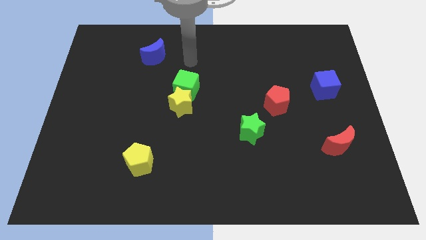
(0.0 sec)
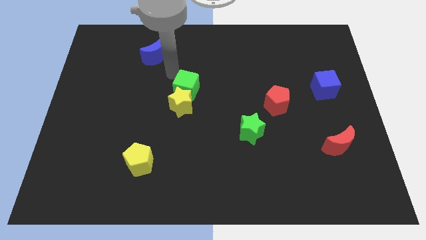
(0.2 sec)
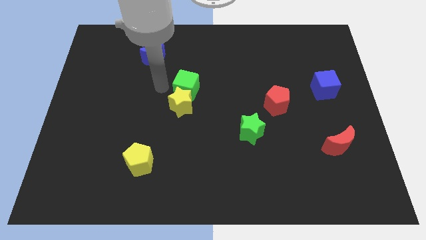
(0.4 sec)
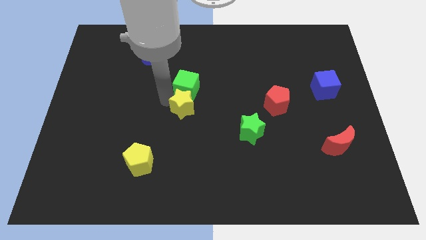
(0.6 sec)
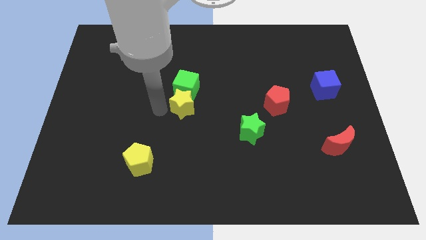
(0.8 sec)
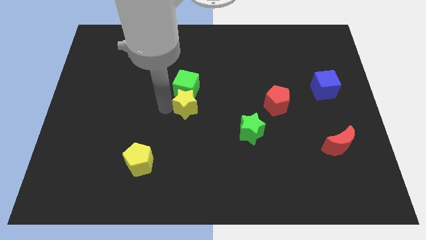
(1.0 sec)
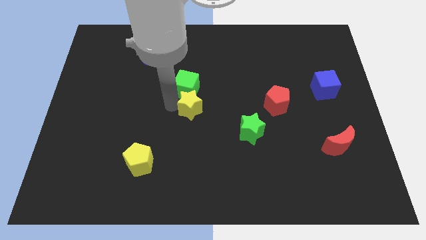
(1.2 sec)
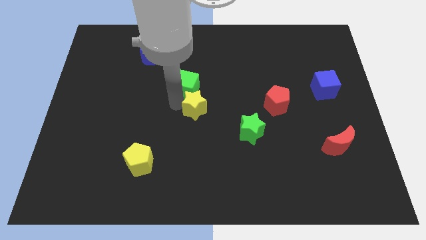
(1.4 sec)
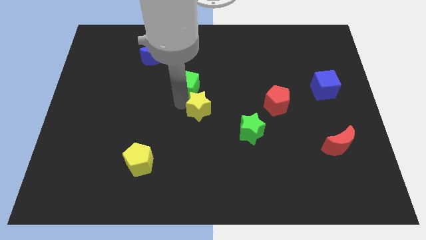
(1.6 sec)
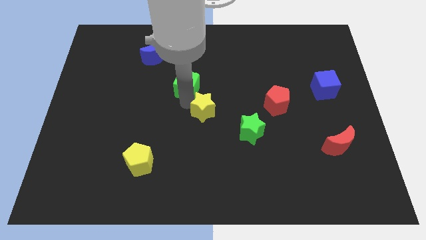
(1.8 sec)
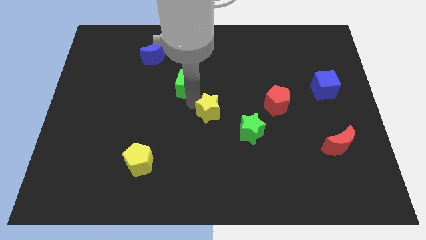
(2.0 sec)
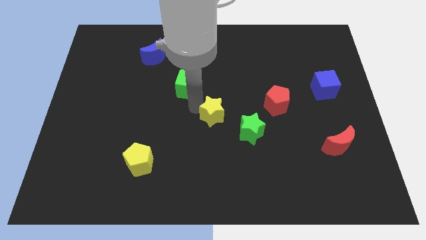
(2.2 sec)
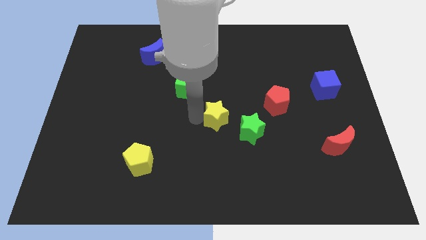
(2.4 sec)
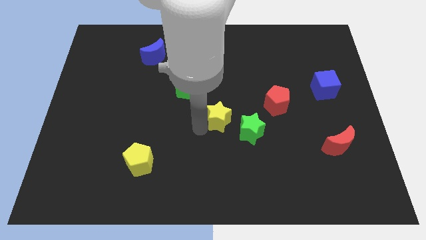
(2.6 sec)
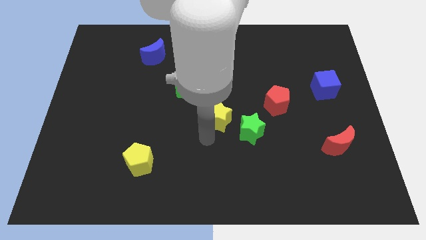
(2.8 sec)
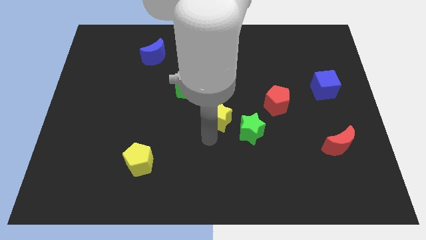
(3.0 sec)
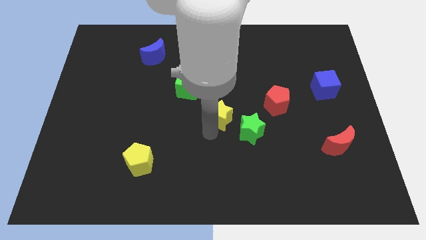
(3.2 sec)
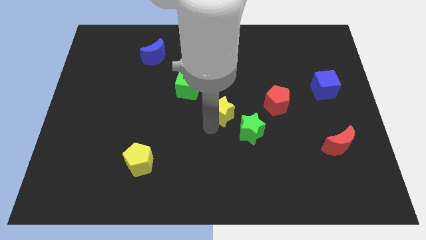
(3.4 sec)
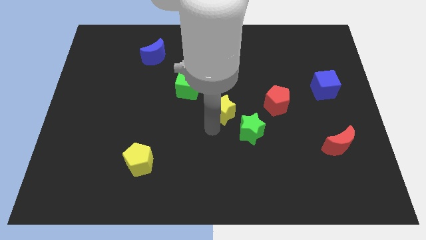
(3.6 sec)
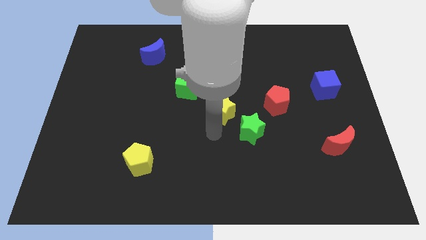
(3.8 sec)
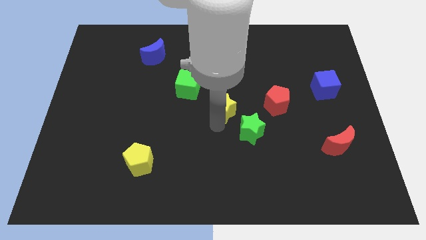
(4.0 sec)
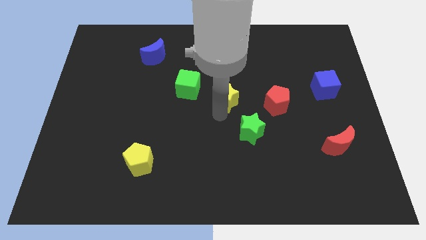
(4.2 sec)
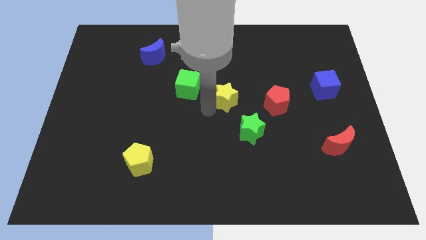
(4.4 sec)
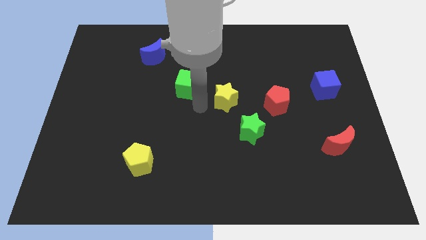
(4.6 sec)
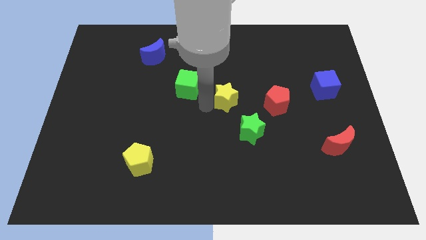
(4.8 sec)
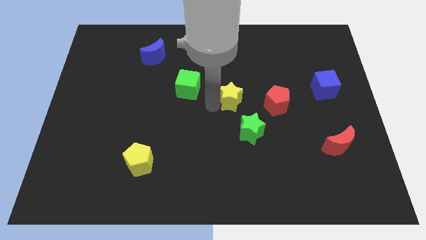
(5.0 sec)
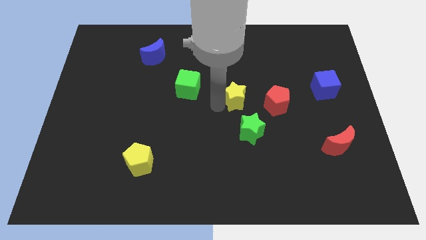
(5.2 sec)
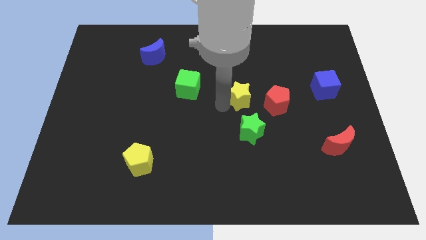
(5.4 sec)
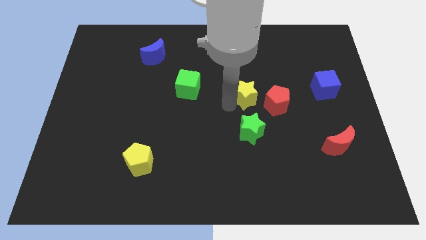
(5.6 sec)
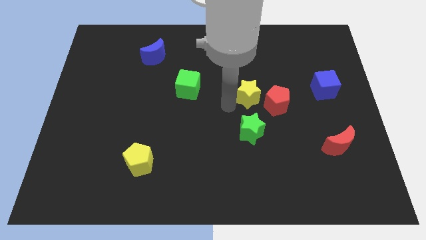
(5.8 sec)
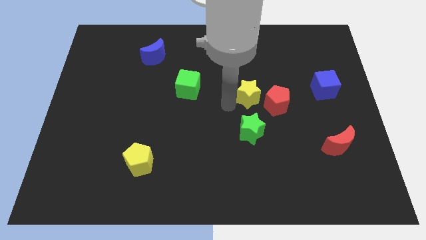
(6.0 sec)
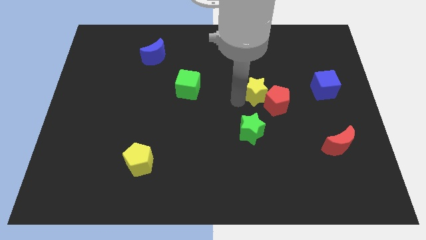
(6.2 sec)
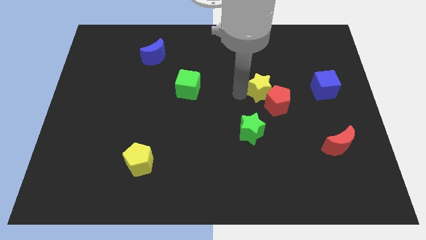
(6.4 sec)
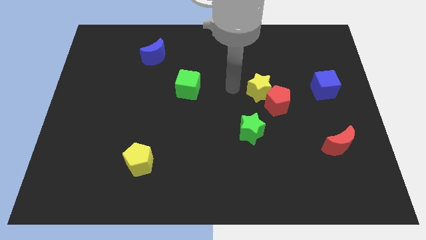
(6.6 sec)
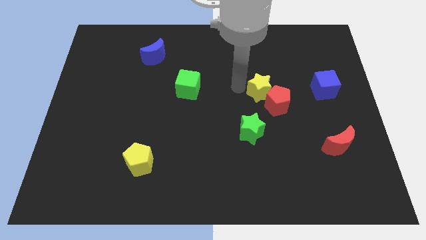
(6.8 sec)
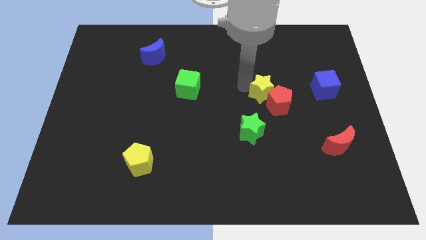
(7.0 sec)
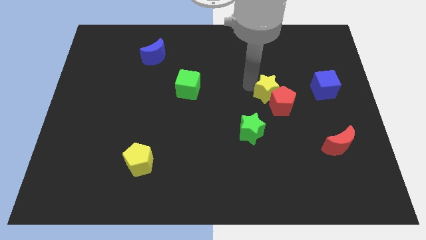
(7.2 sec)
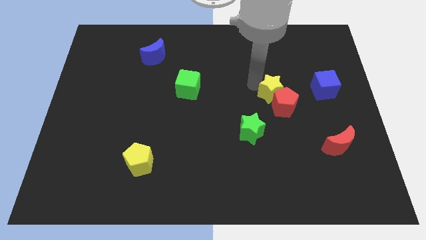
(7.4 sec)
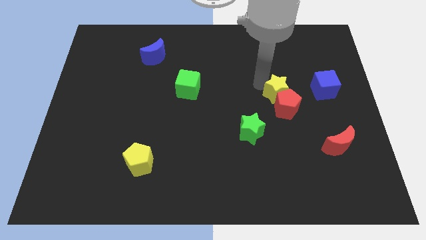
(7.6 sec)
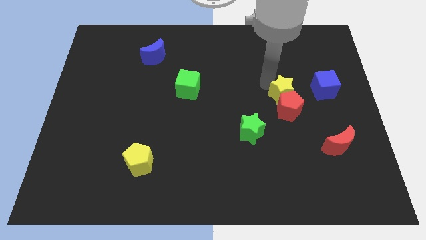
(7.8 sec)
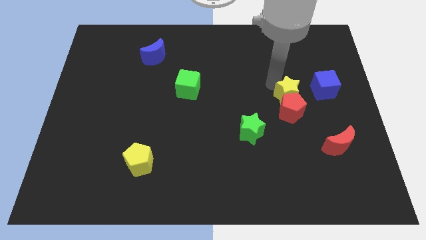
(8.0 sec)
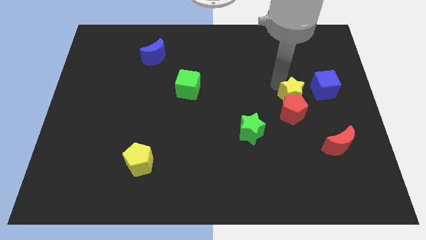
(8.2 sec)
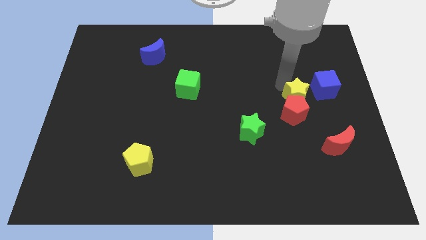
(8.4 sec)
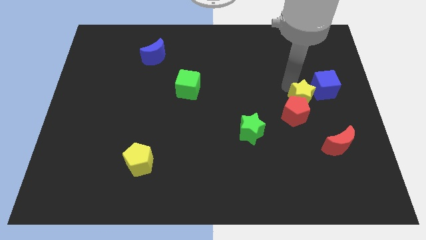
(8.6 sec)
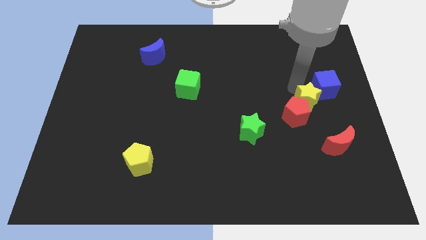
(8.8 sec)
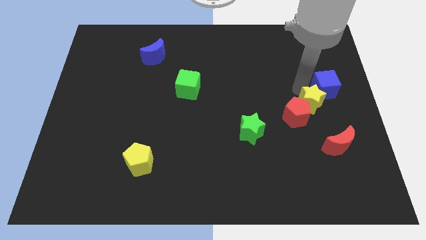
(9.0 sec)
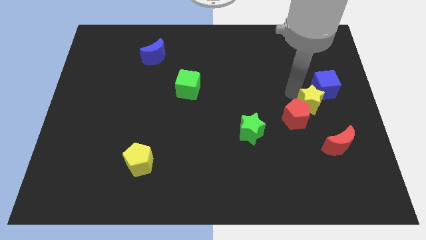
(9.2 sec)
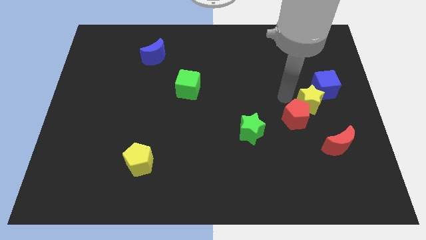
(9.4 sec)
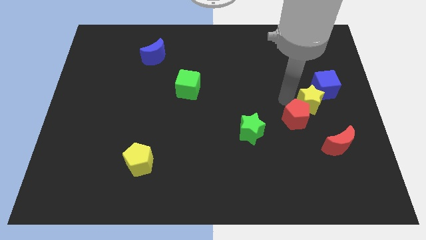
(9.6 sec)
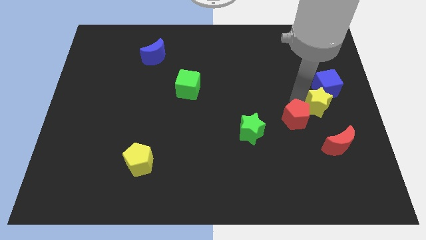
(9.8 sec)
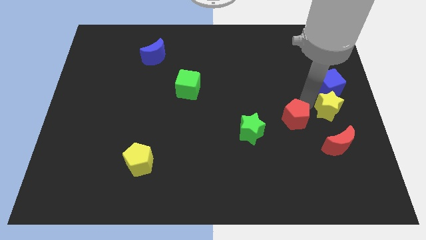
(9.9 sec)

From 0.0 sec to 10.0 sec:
slide the yellow star to the right side of the board

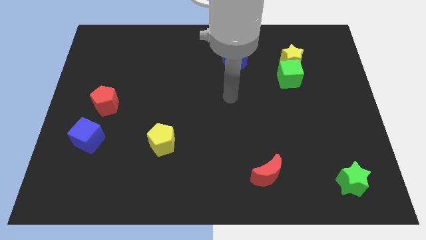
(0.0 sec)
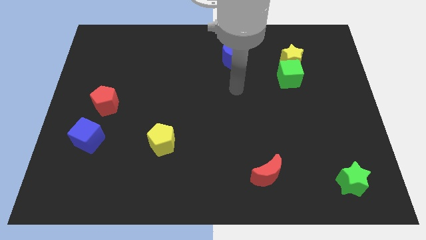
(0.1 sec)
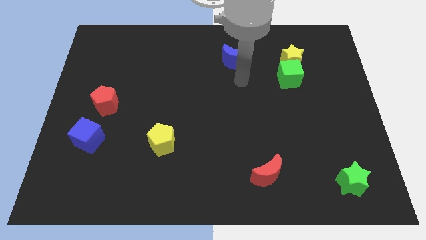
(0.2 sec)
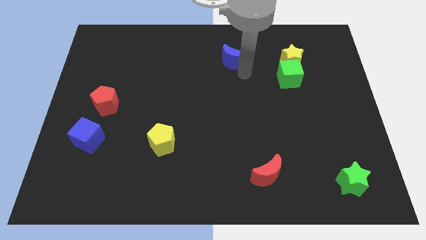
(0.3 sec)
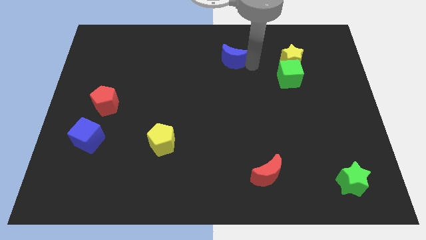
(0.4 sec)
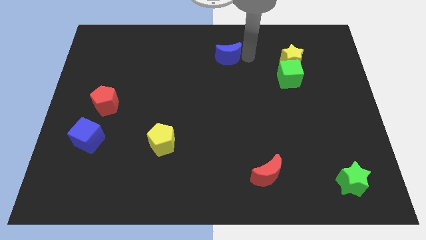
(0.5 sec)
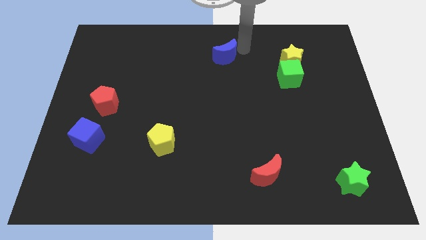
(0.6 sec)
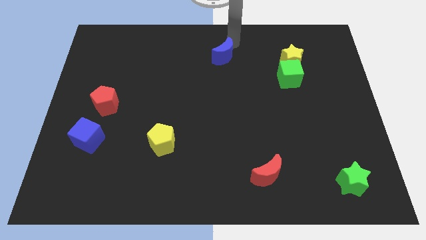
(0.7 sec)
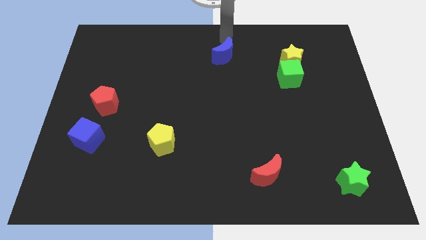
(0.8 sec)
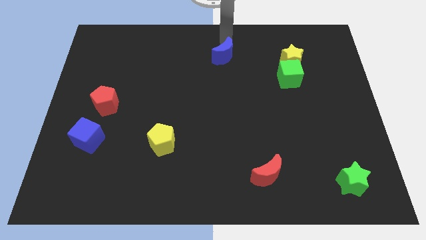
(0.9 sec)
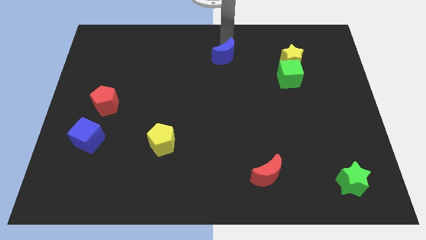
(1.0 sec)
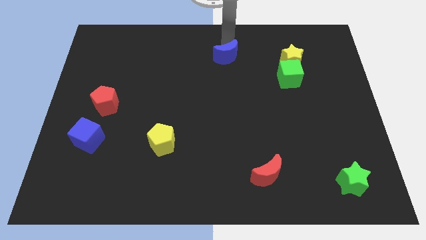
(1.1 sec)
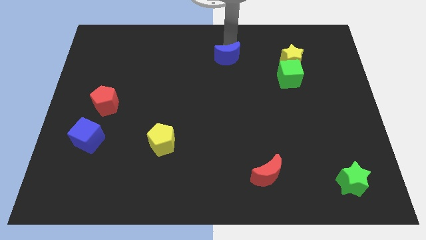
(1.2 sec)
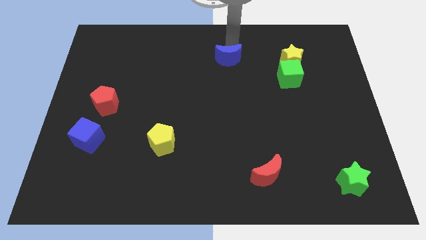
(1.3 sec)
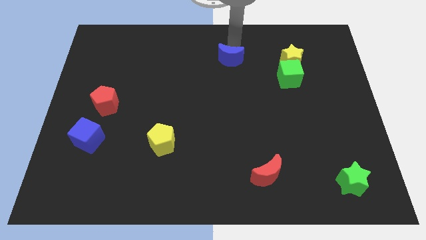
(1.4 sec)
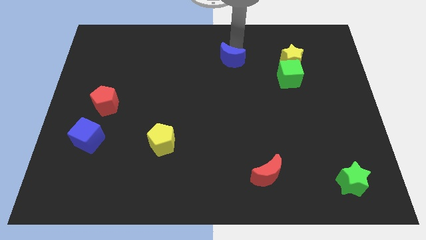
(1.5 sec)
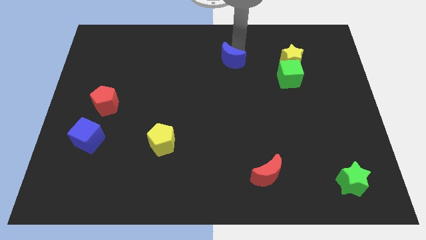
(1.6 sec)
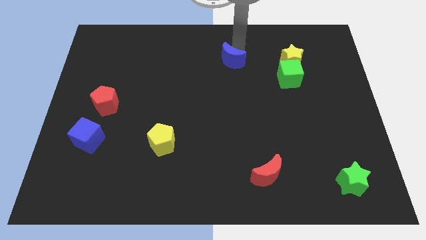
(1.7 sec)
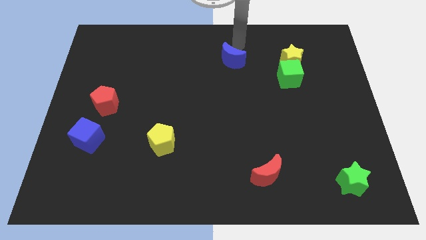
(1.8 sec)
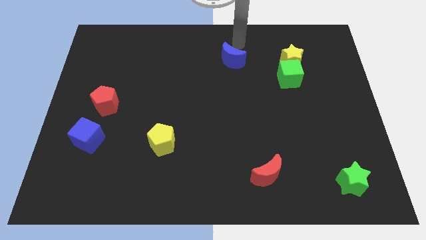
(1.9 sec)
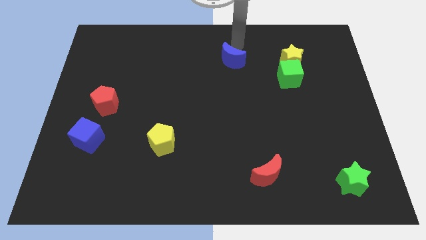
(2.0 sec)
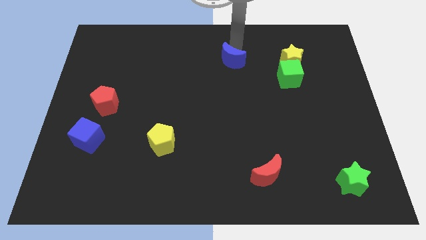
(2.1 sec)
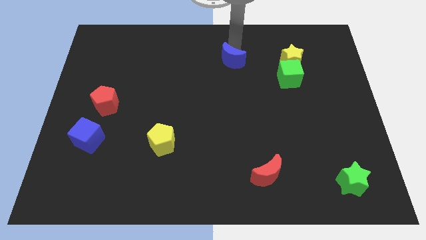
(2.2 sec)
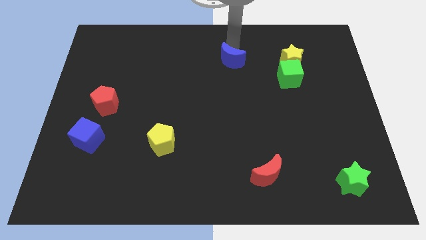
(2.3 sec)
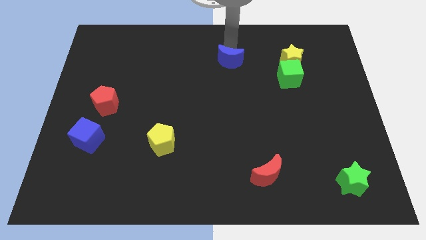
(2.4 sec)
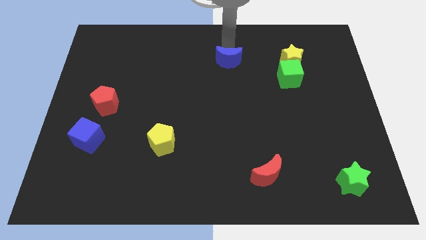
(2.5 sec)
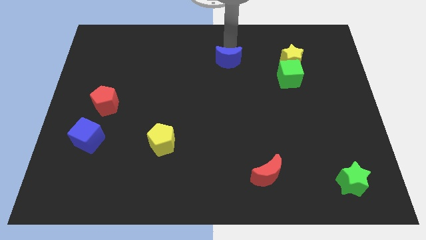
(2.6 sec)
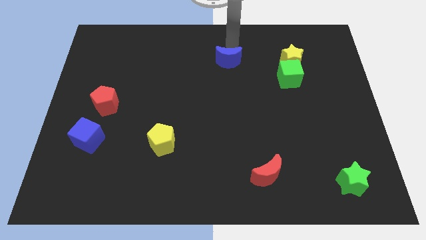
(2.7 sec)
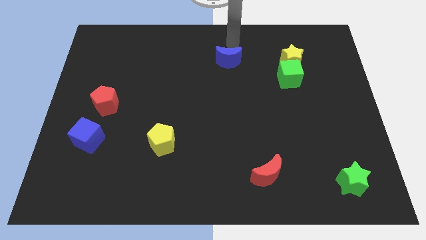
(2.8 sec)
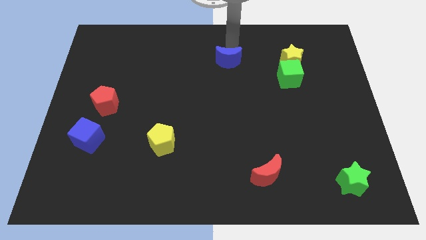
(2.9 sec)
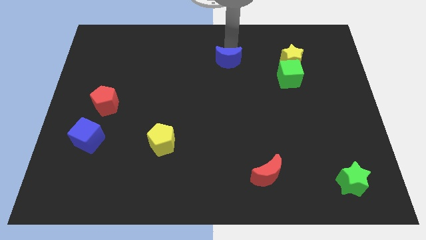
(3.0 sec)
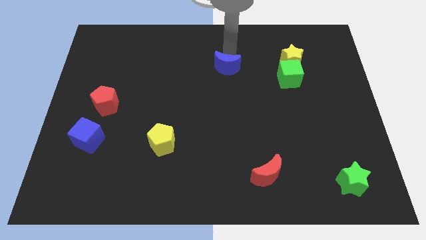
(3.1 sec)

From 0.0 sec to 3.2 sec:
move the blue moon to the middle of the board
